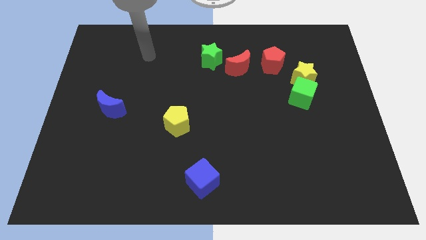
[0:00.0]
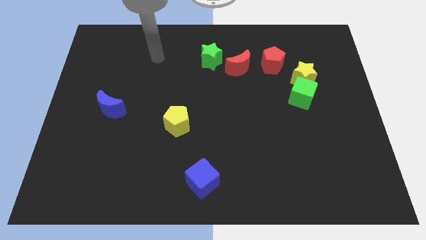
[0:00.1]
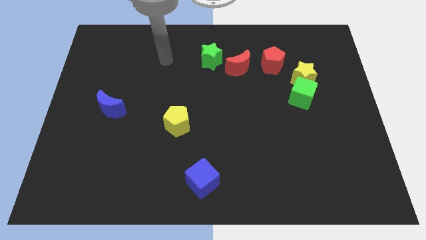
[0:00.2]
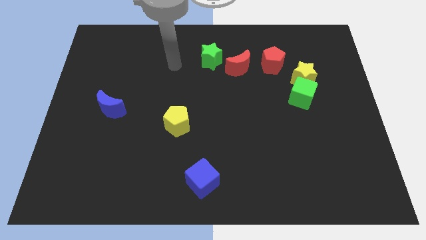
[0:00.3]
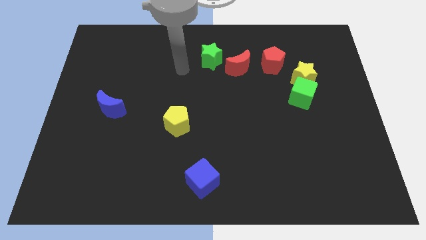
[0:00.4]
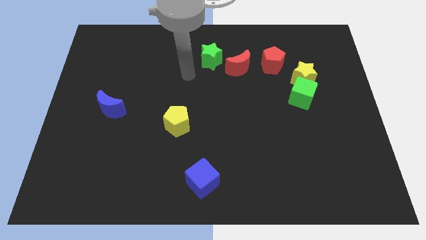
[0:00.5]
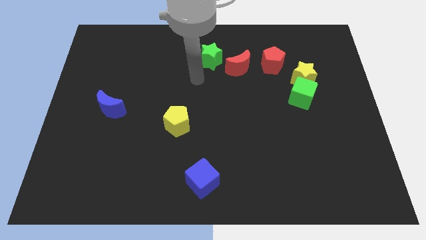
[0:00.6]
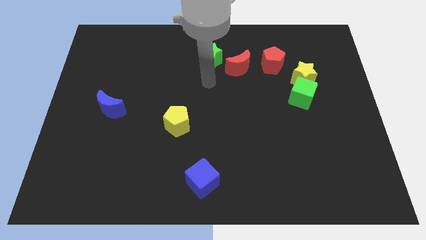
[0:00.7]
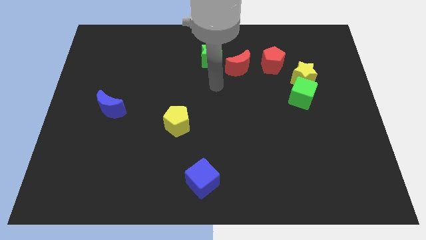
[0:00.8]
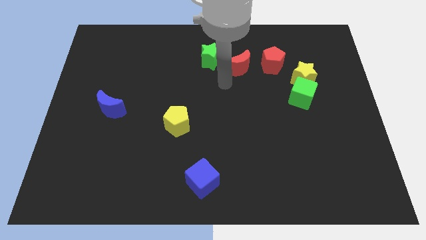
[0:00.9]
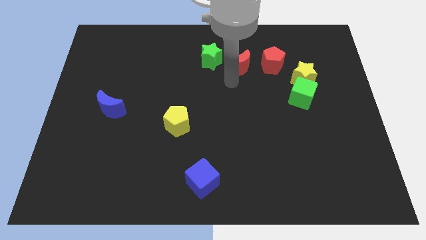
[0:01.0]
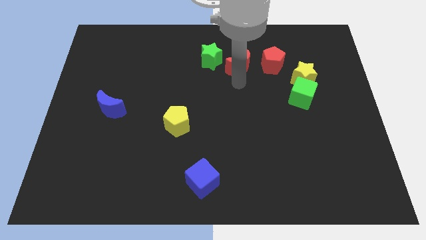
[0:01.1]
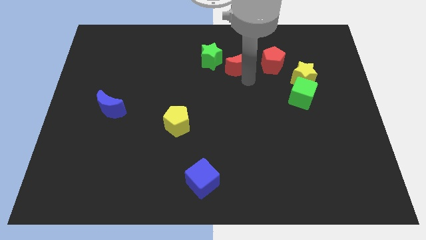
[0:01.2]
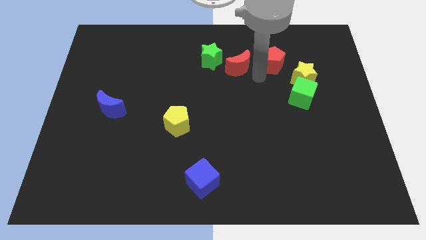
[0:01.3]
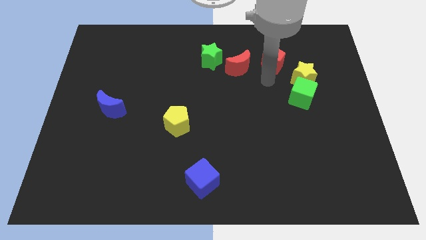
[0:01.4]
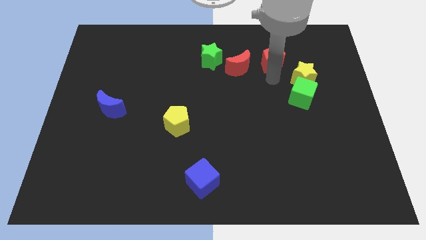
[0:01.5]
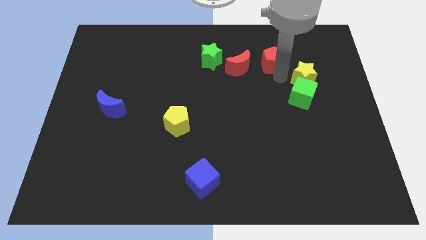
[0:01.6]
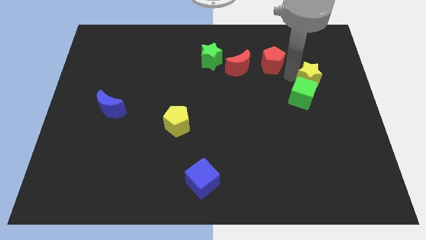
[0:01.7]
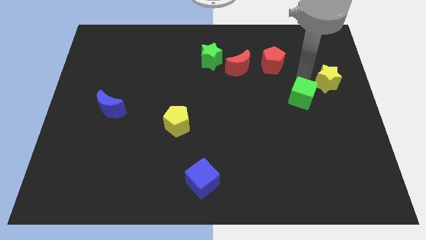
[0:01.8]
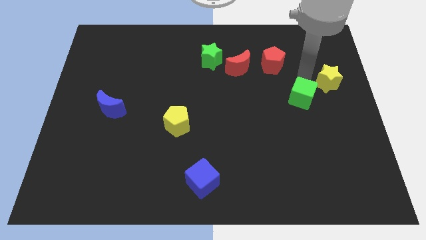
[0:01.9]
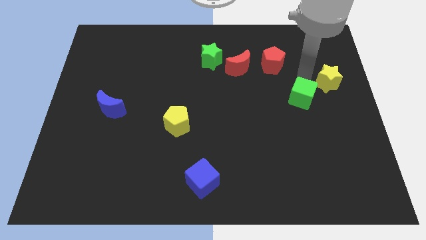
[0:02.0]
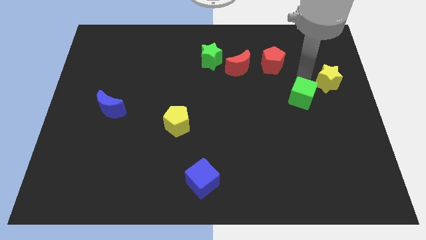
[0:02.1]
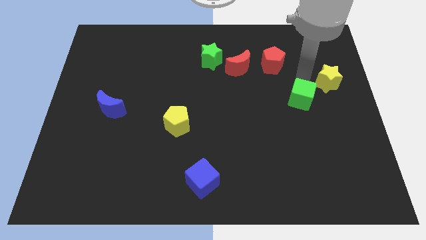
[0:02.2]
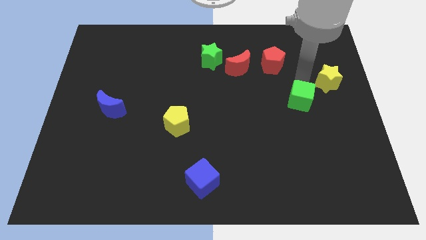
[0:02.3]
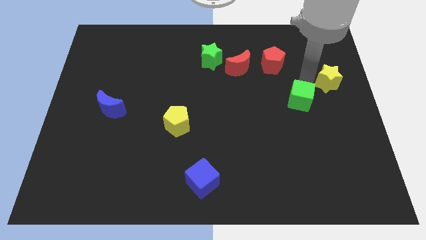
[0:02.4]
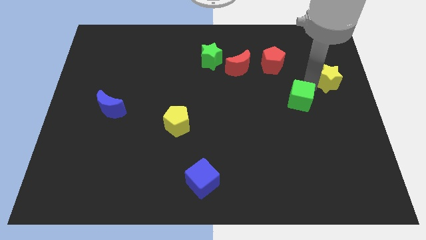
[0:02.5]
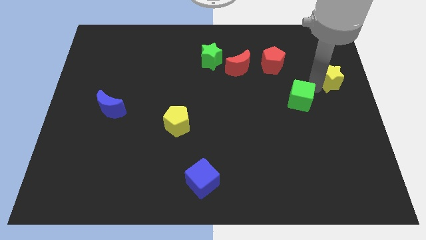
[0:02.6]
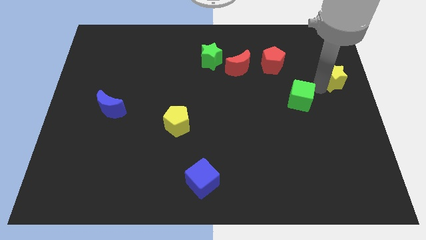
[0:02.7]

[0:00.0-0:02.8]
pull the green cube apart from the yellow star

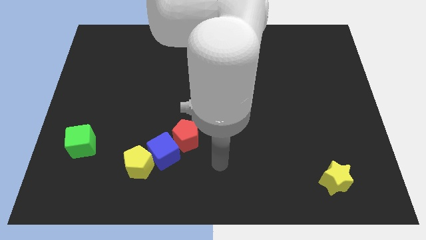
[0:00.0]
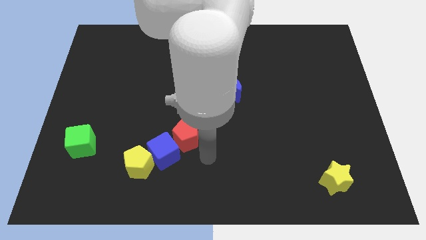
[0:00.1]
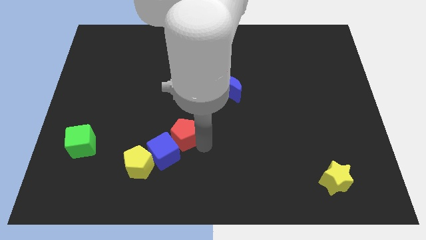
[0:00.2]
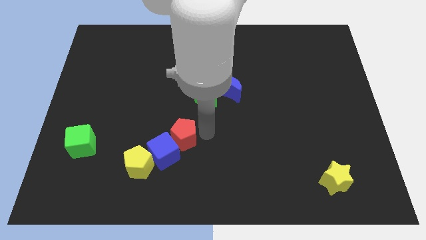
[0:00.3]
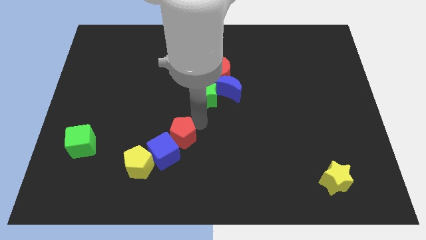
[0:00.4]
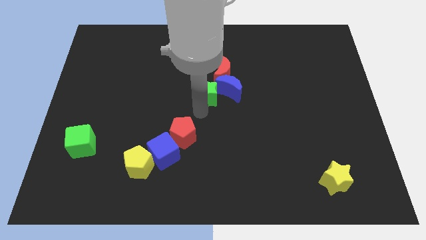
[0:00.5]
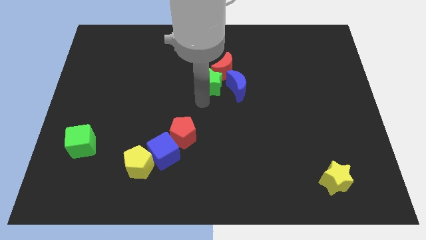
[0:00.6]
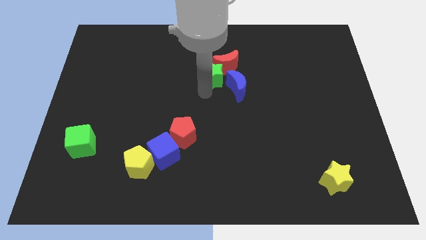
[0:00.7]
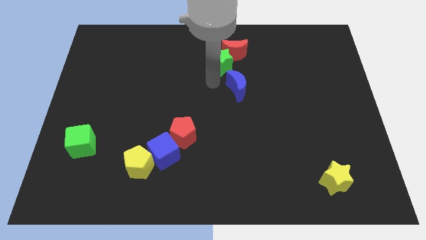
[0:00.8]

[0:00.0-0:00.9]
separate the blue moon from the red moon and green star

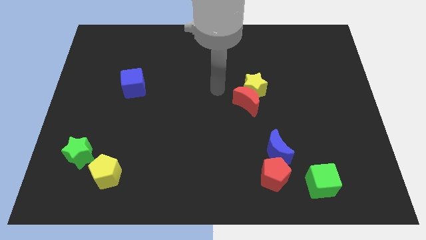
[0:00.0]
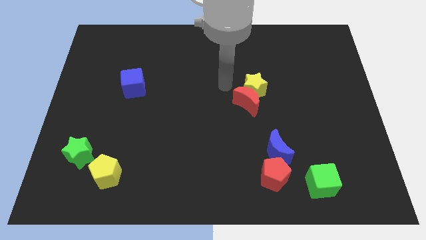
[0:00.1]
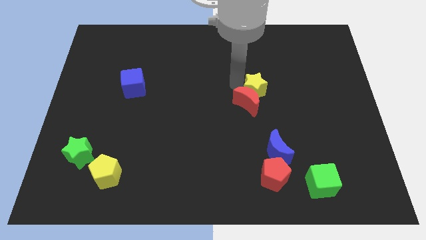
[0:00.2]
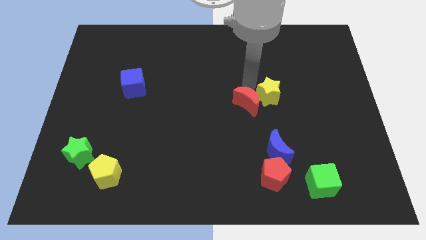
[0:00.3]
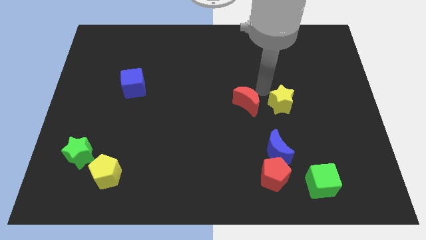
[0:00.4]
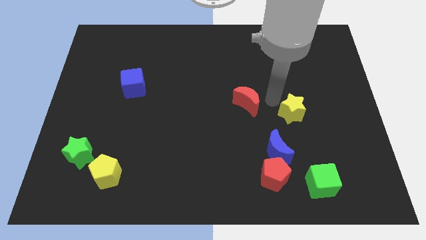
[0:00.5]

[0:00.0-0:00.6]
separate the red moon from the yellow star

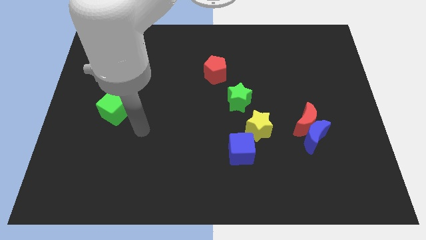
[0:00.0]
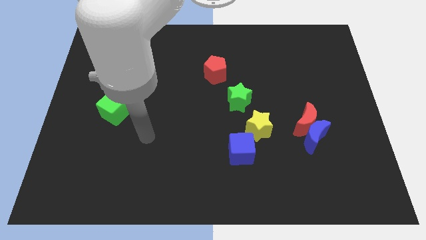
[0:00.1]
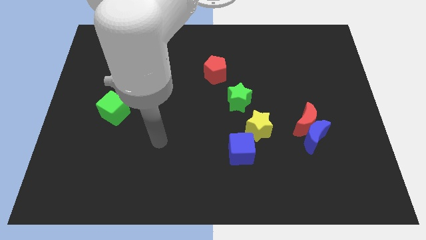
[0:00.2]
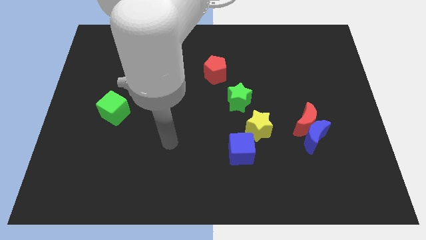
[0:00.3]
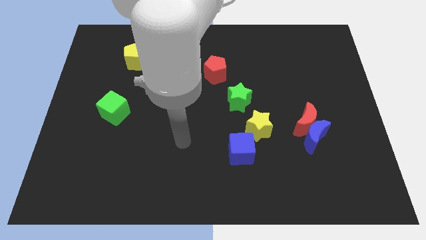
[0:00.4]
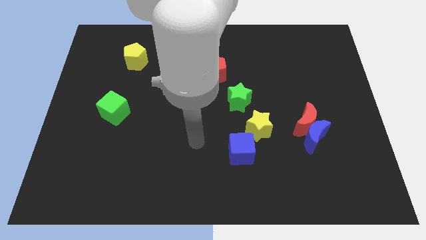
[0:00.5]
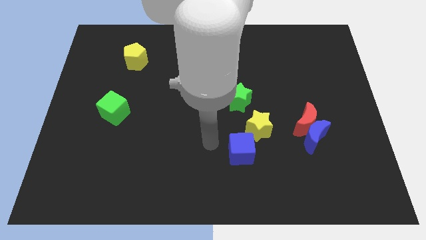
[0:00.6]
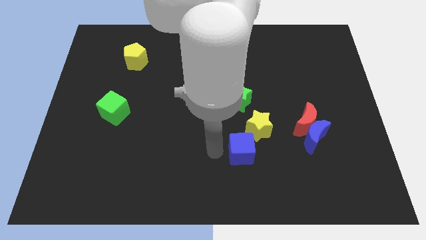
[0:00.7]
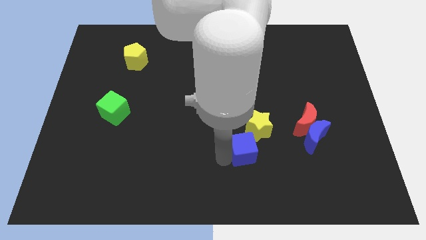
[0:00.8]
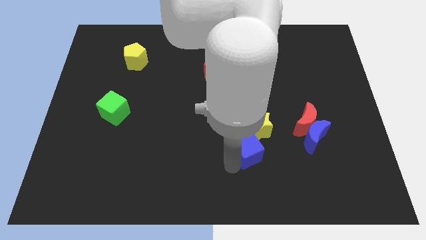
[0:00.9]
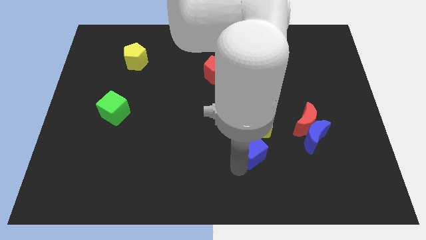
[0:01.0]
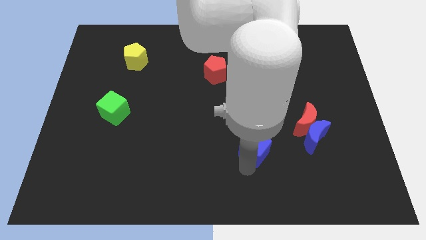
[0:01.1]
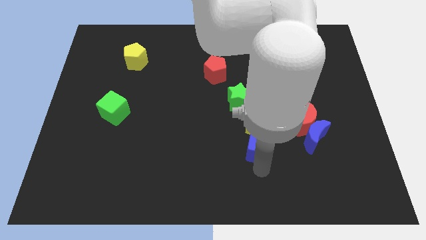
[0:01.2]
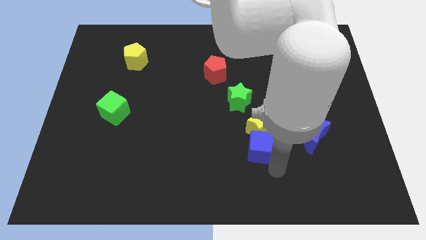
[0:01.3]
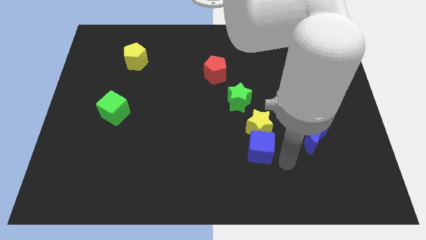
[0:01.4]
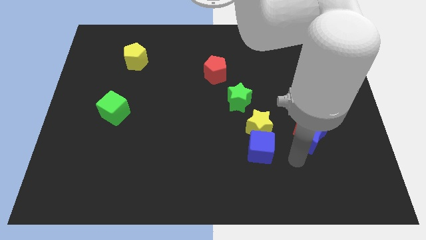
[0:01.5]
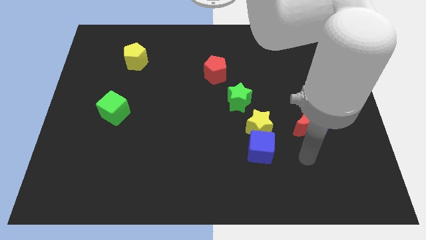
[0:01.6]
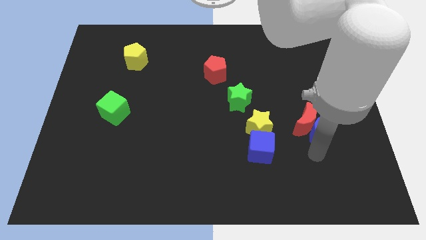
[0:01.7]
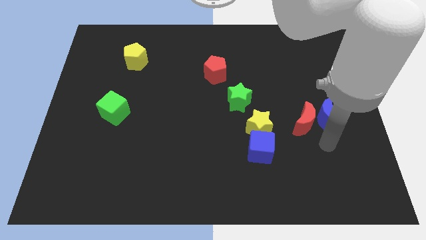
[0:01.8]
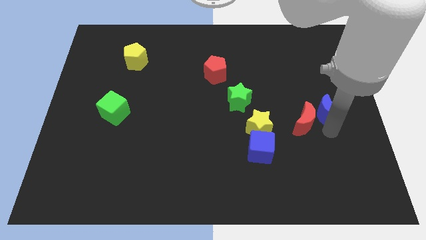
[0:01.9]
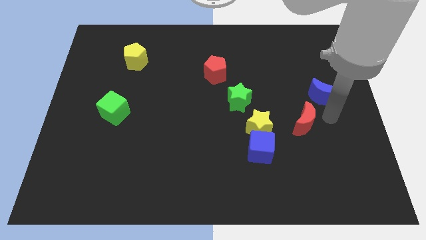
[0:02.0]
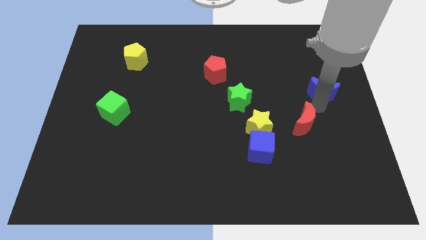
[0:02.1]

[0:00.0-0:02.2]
move the red moon away from the blue moon

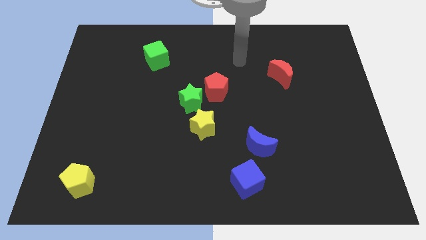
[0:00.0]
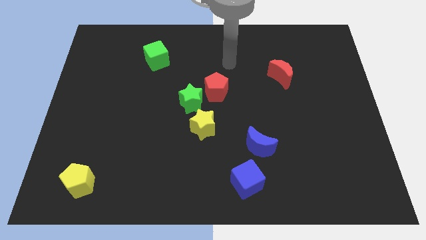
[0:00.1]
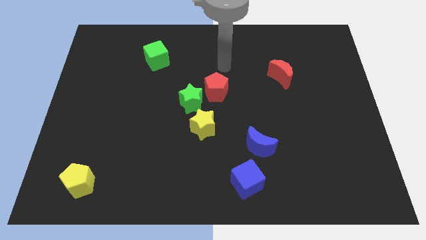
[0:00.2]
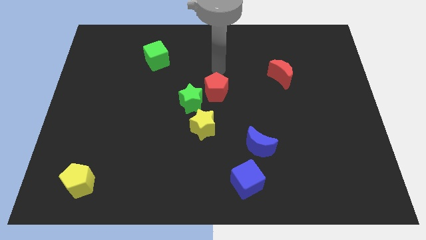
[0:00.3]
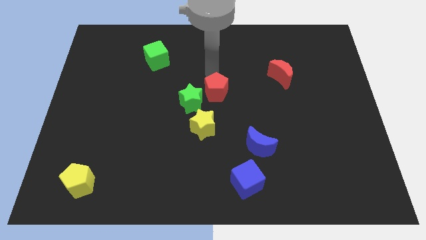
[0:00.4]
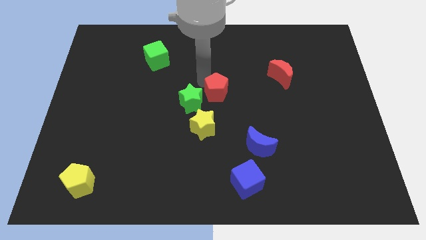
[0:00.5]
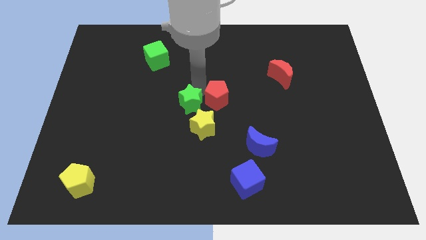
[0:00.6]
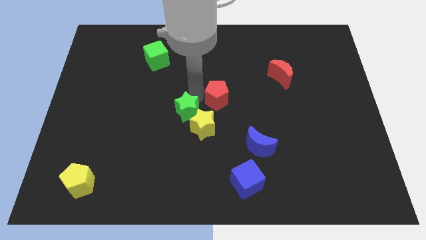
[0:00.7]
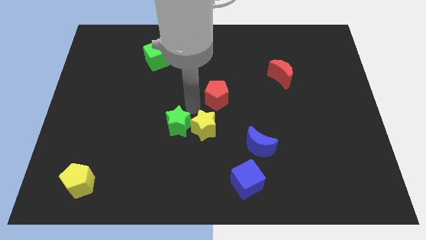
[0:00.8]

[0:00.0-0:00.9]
pull the red pentagon apart from the green star

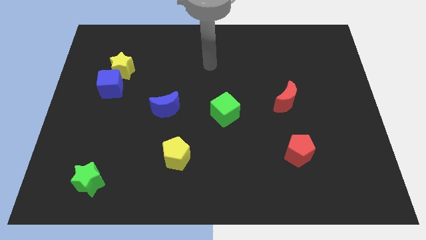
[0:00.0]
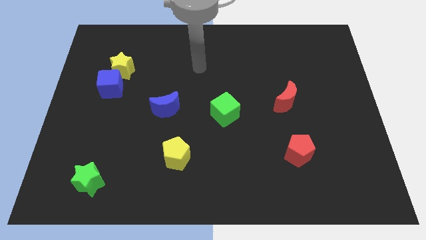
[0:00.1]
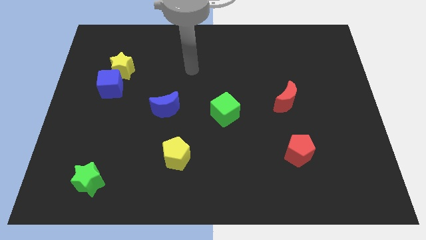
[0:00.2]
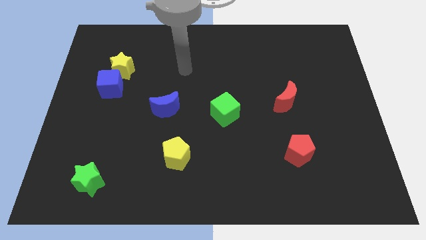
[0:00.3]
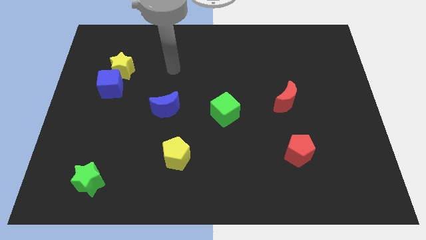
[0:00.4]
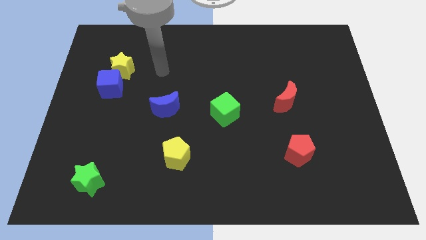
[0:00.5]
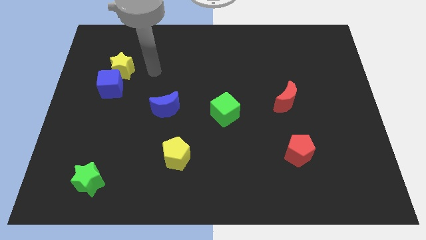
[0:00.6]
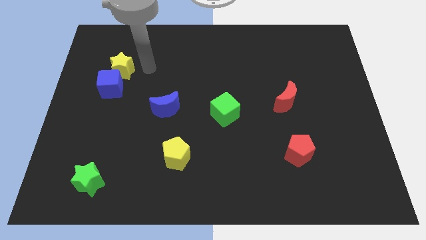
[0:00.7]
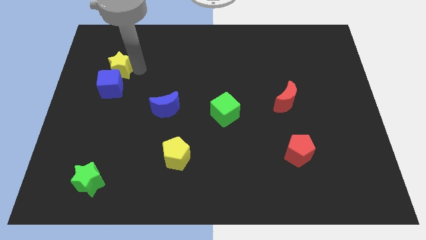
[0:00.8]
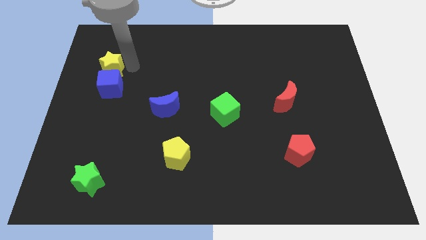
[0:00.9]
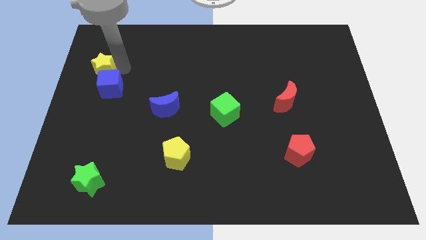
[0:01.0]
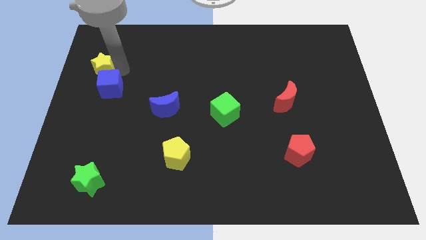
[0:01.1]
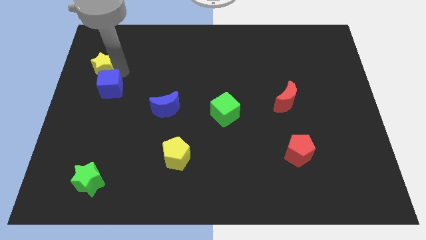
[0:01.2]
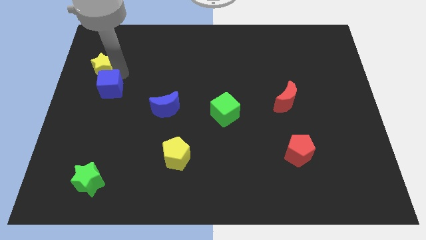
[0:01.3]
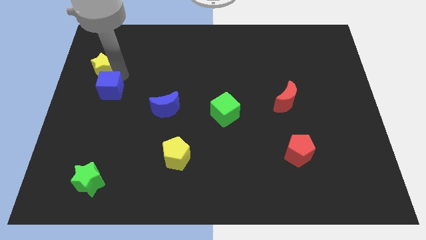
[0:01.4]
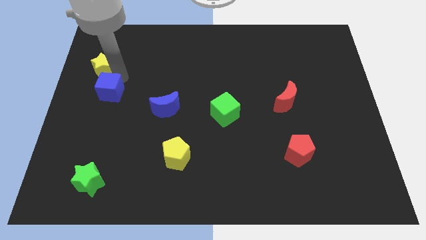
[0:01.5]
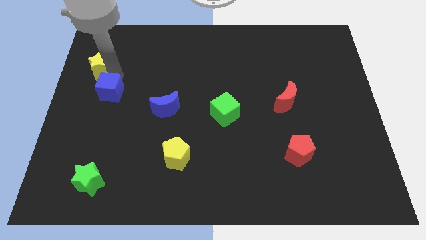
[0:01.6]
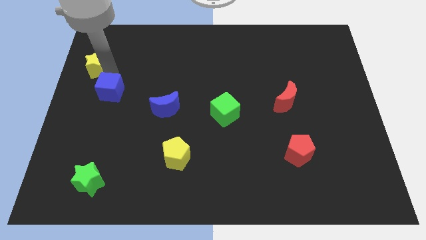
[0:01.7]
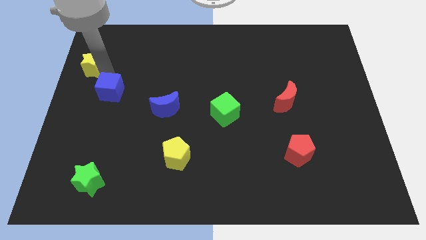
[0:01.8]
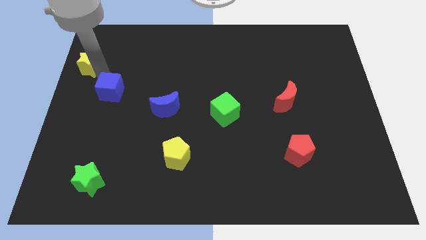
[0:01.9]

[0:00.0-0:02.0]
move the blue cube away from the yellow star
